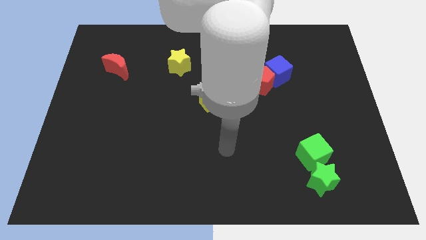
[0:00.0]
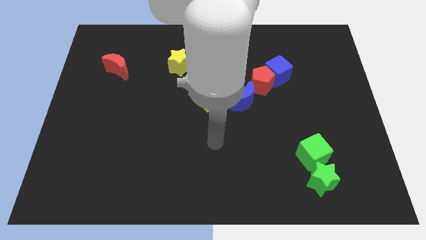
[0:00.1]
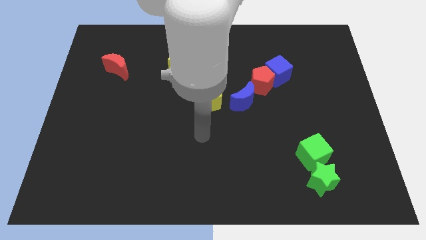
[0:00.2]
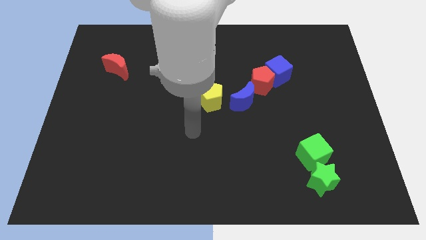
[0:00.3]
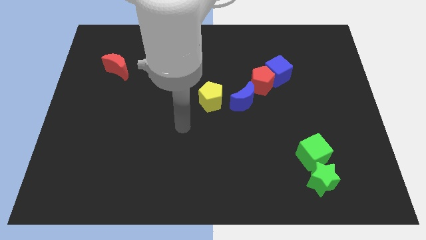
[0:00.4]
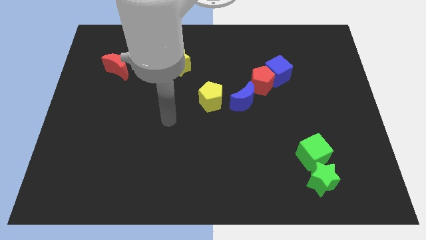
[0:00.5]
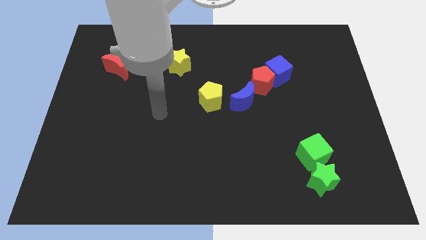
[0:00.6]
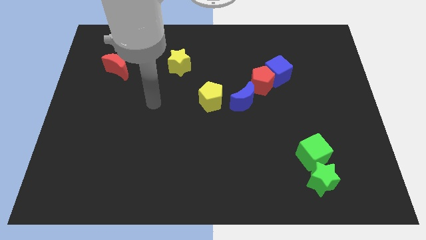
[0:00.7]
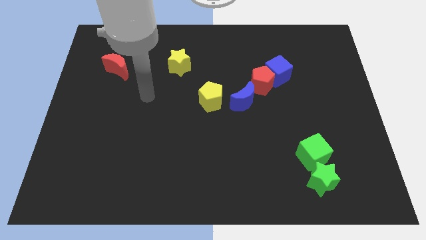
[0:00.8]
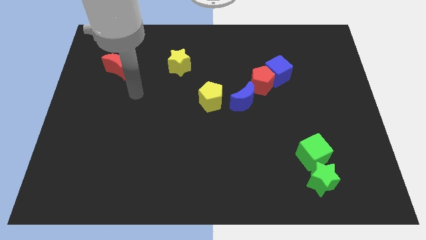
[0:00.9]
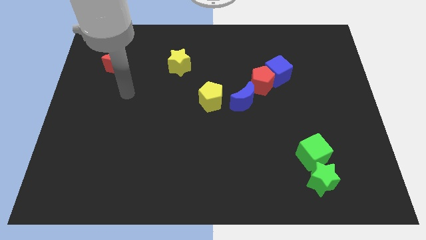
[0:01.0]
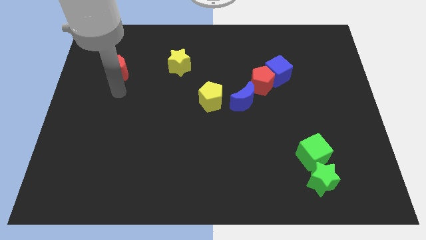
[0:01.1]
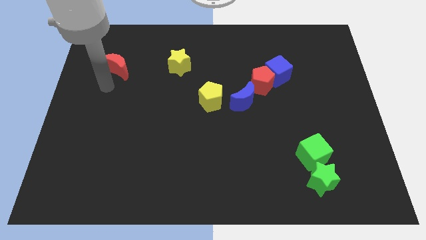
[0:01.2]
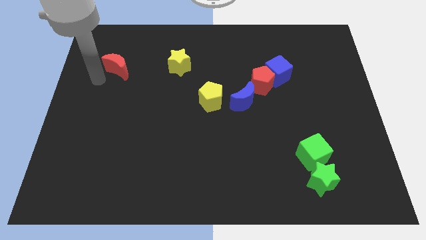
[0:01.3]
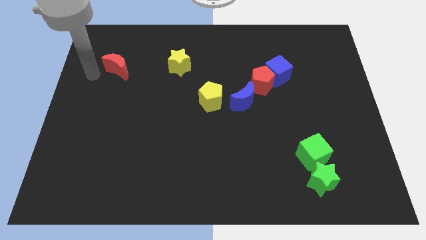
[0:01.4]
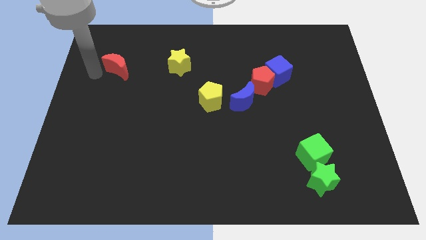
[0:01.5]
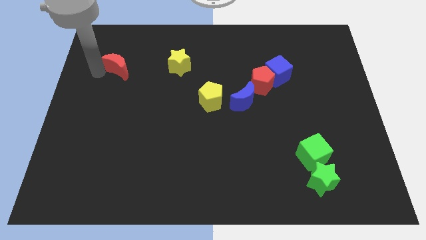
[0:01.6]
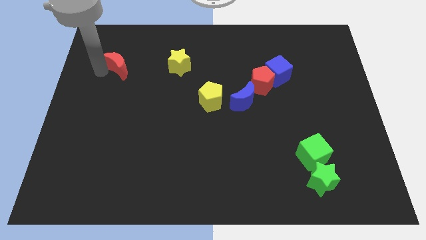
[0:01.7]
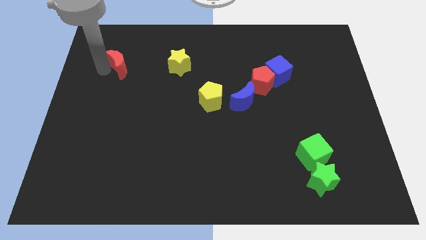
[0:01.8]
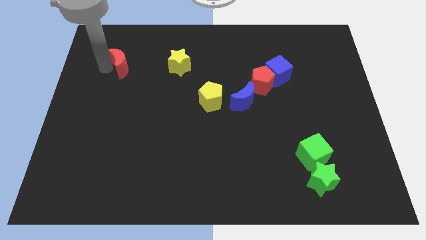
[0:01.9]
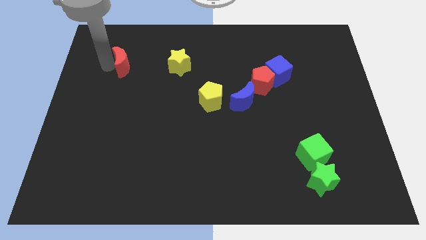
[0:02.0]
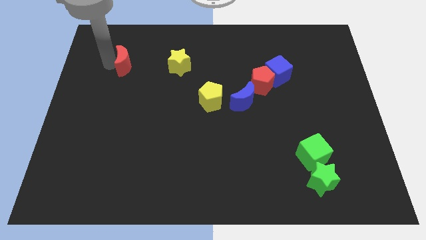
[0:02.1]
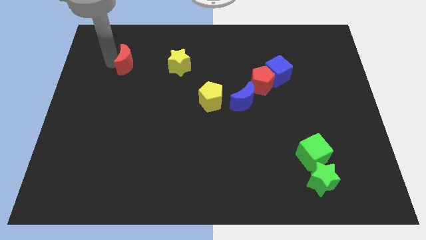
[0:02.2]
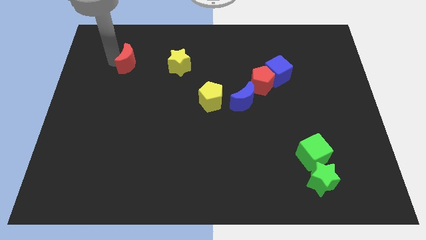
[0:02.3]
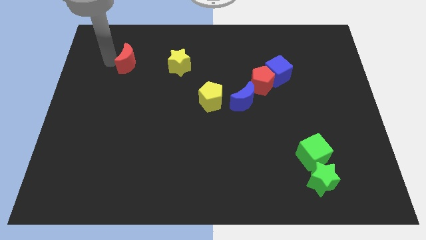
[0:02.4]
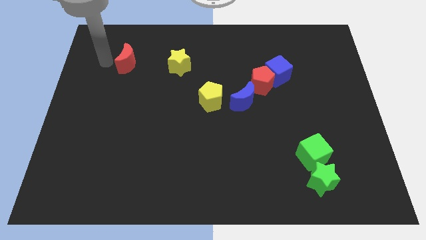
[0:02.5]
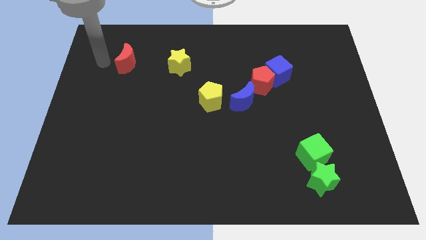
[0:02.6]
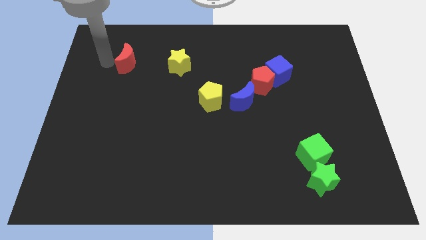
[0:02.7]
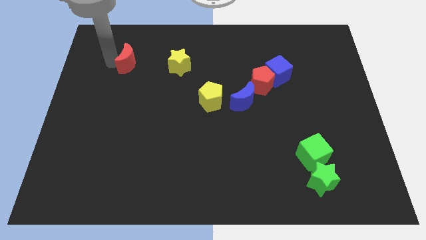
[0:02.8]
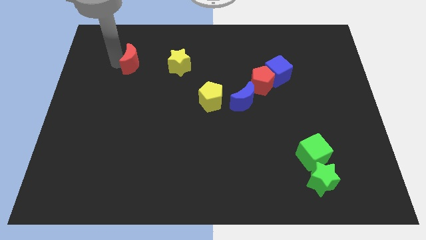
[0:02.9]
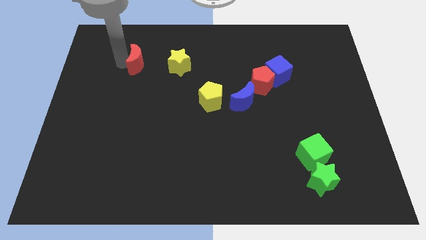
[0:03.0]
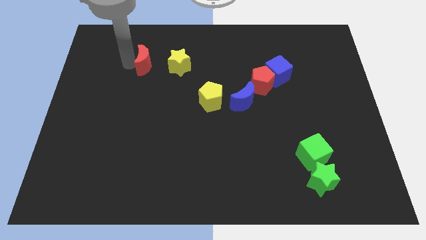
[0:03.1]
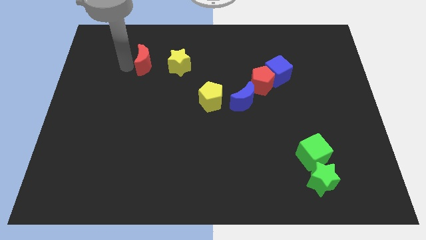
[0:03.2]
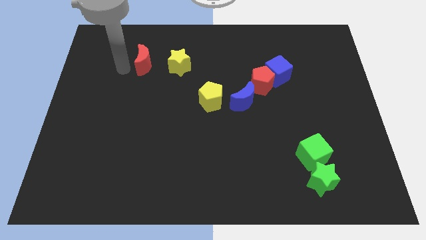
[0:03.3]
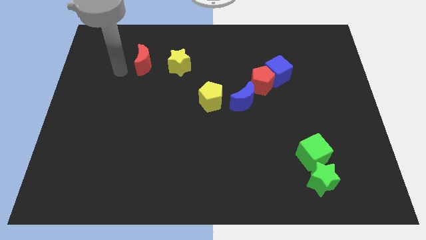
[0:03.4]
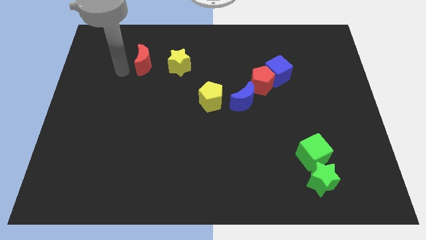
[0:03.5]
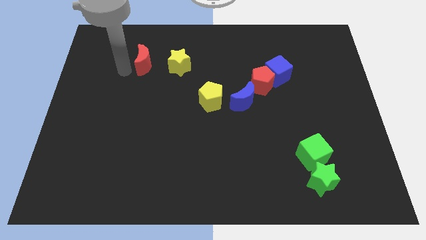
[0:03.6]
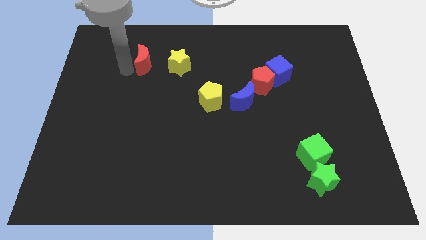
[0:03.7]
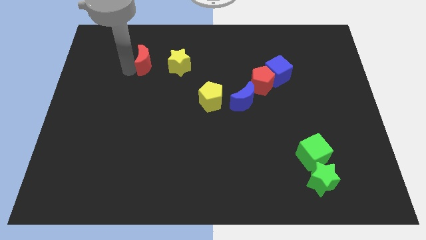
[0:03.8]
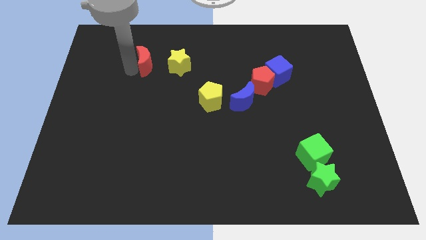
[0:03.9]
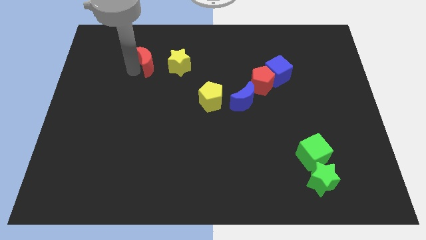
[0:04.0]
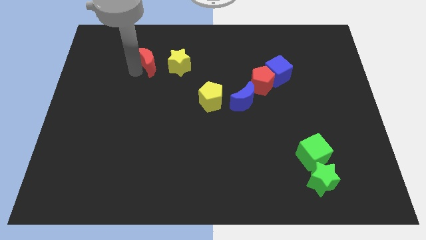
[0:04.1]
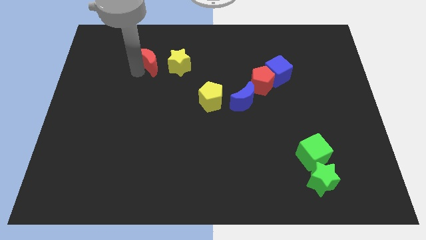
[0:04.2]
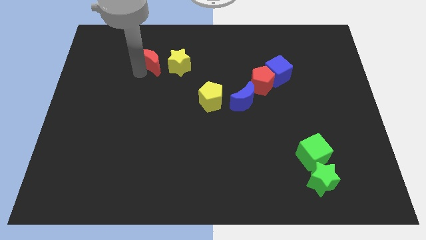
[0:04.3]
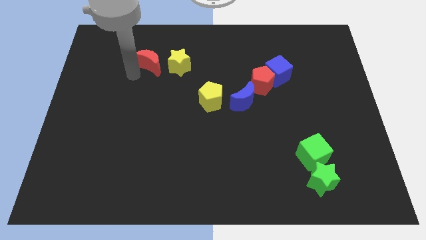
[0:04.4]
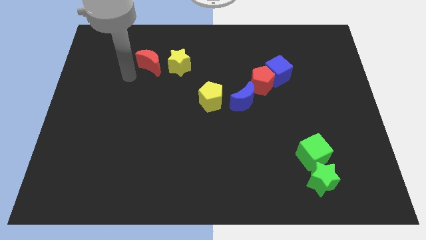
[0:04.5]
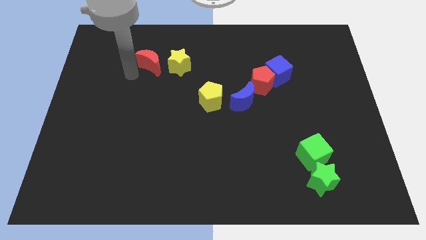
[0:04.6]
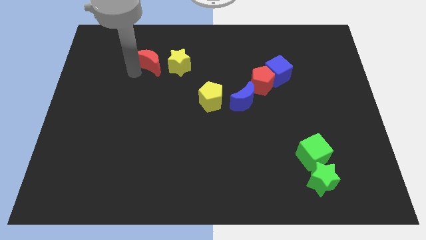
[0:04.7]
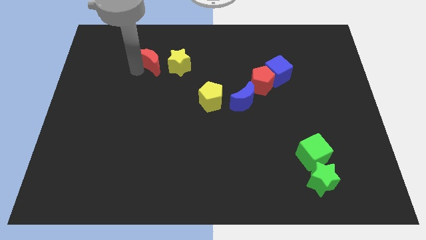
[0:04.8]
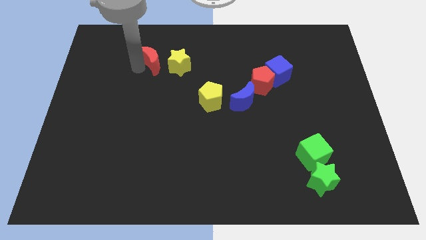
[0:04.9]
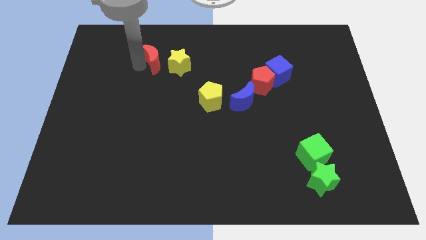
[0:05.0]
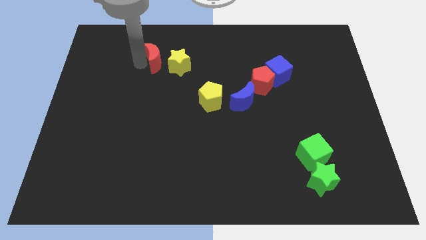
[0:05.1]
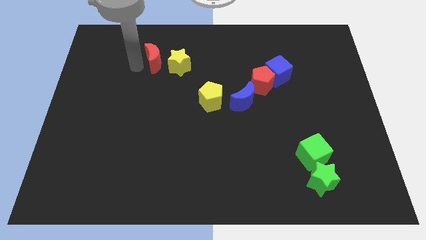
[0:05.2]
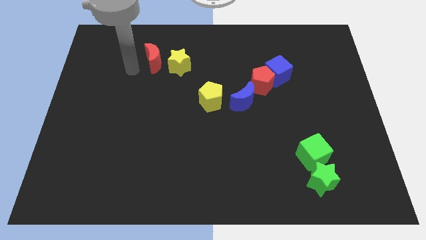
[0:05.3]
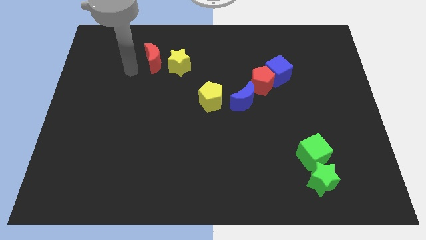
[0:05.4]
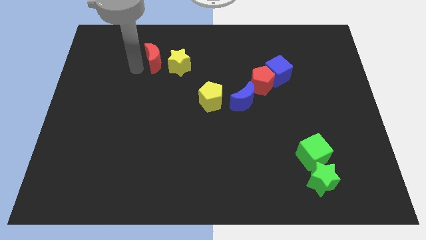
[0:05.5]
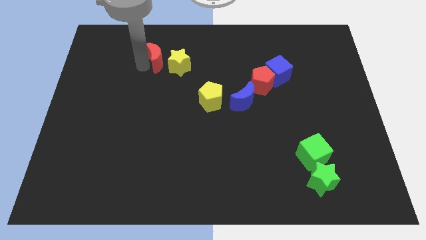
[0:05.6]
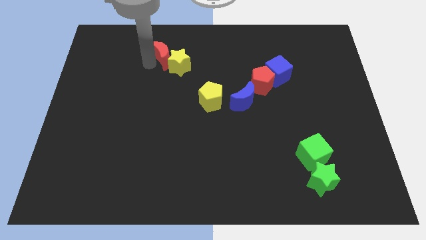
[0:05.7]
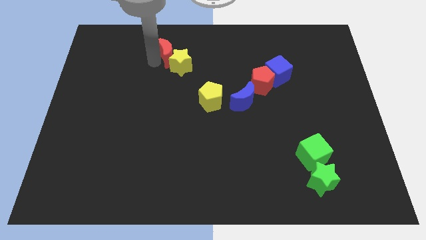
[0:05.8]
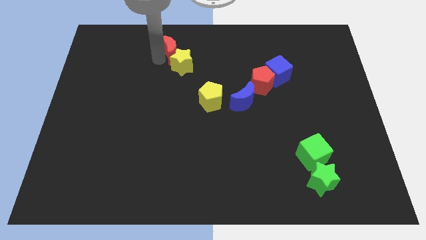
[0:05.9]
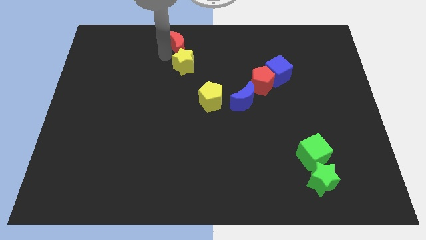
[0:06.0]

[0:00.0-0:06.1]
put the red moon to the top side

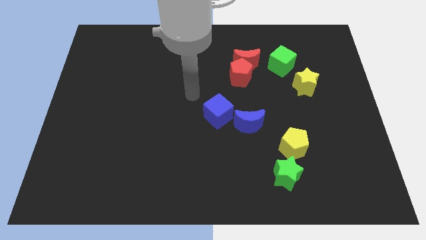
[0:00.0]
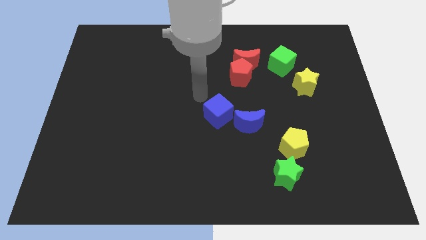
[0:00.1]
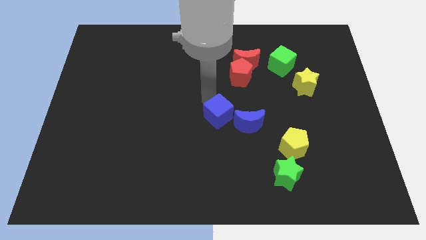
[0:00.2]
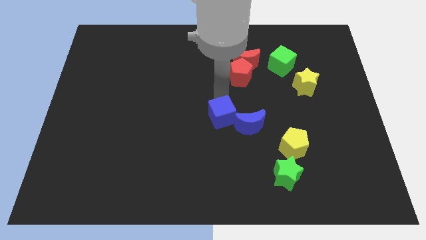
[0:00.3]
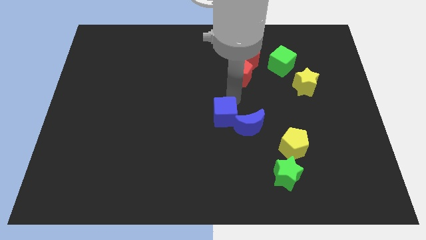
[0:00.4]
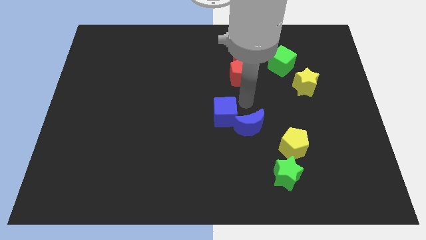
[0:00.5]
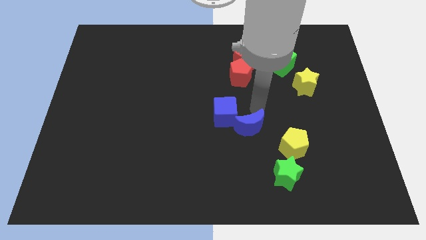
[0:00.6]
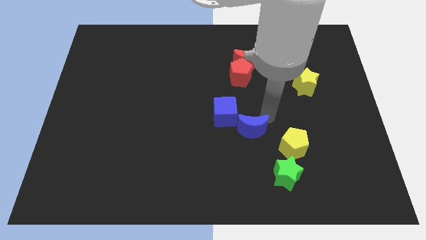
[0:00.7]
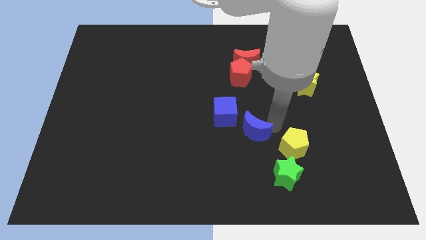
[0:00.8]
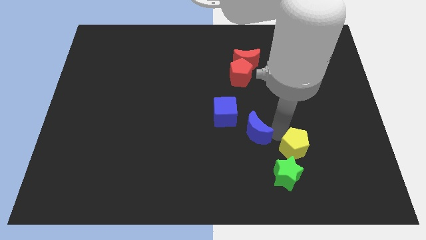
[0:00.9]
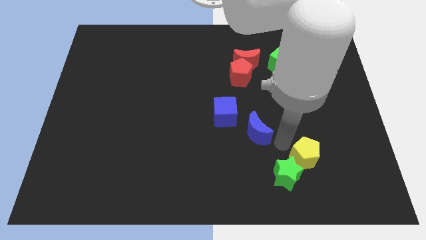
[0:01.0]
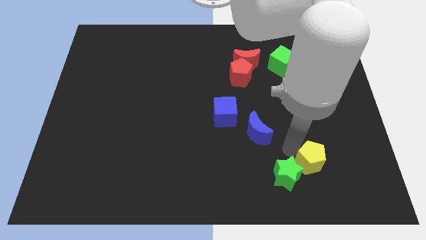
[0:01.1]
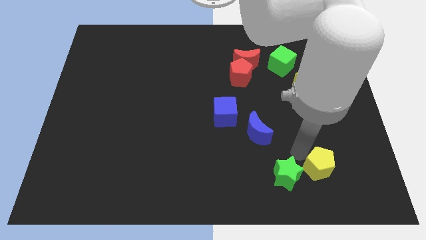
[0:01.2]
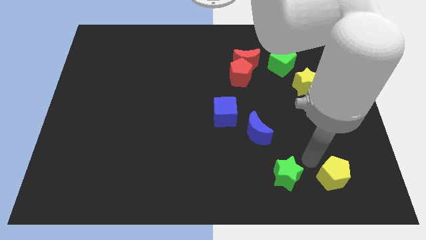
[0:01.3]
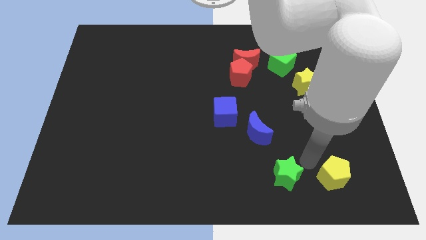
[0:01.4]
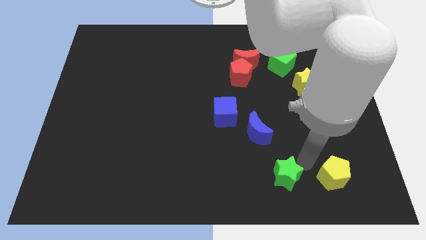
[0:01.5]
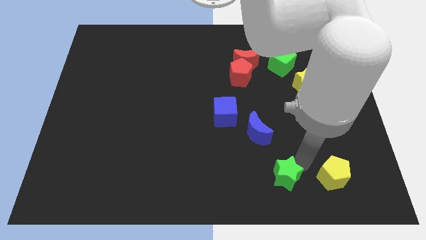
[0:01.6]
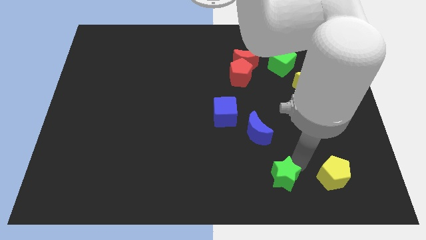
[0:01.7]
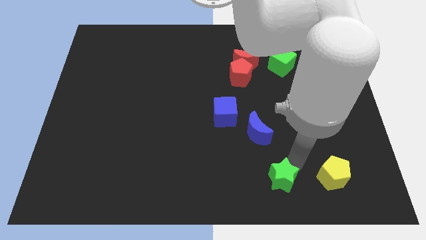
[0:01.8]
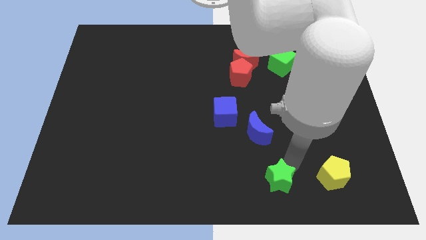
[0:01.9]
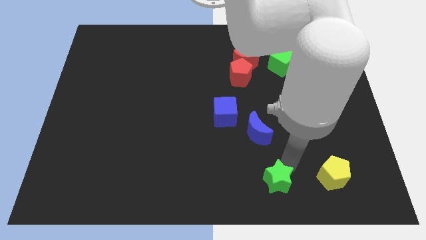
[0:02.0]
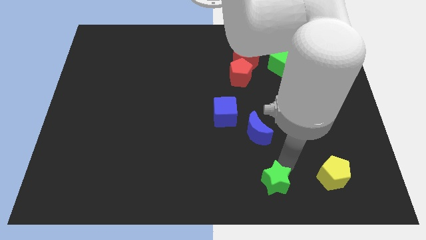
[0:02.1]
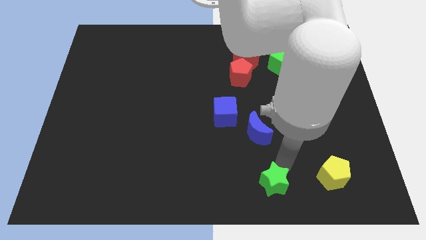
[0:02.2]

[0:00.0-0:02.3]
put the green star to the bottom
